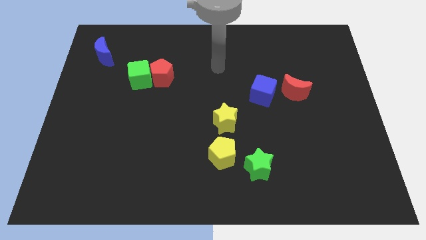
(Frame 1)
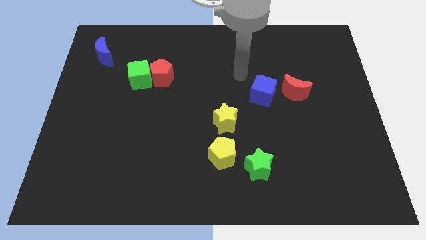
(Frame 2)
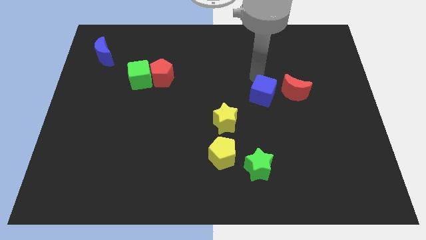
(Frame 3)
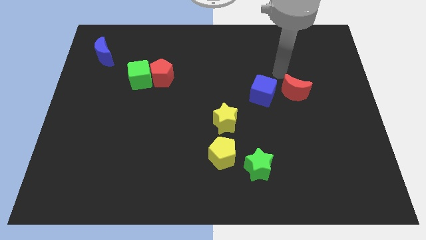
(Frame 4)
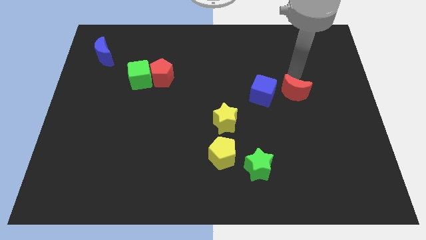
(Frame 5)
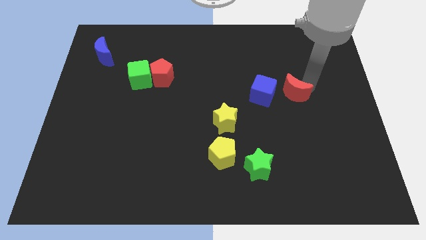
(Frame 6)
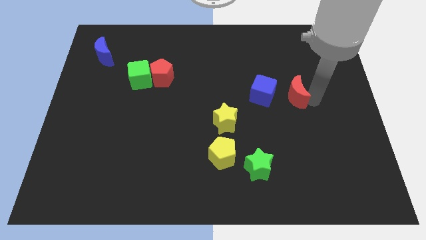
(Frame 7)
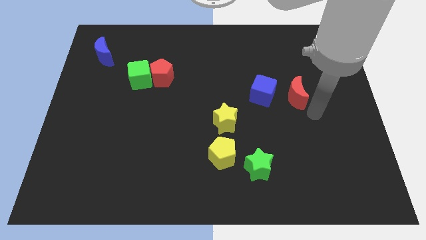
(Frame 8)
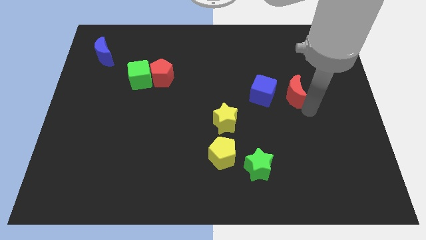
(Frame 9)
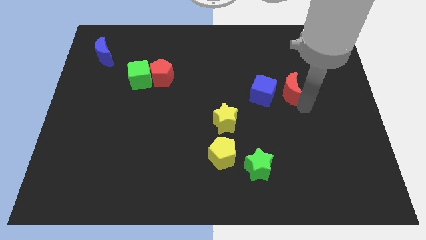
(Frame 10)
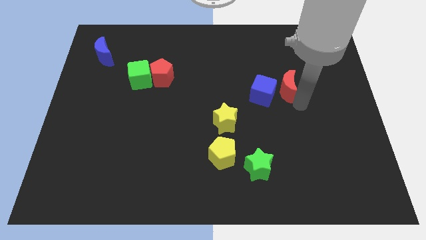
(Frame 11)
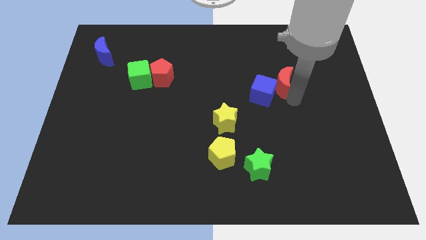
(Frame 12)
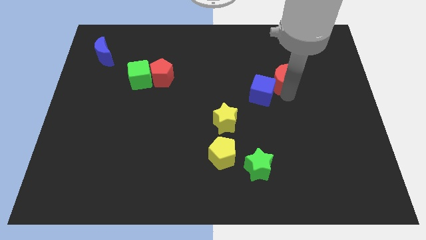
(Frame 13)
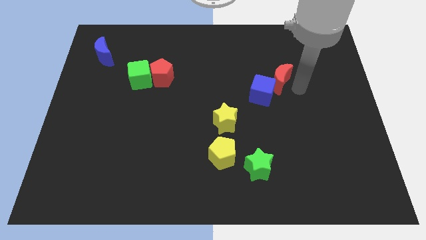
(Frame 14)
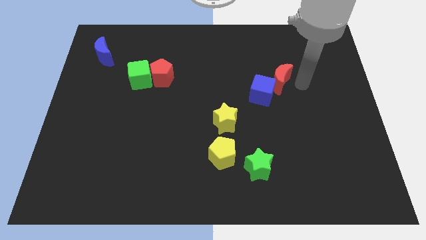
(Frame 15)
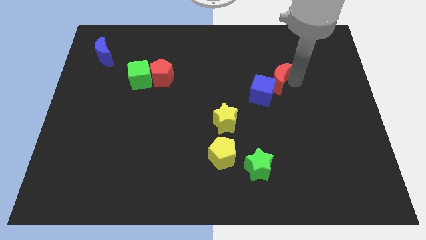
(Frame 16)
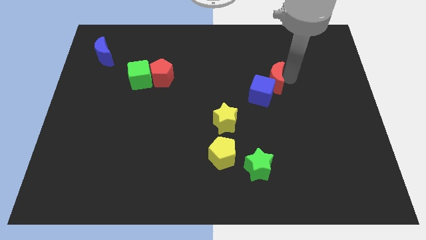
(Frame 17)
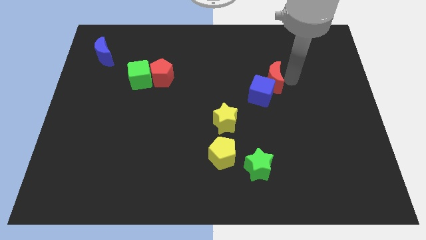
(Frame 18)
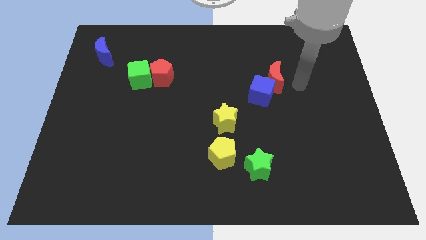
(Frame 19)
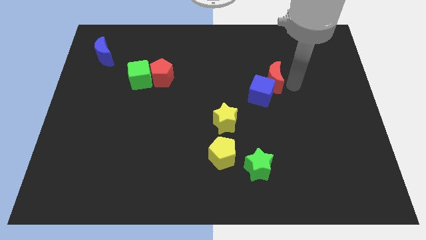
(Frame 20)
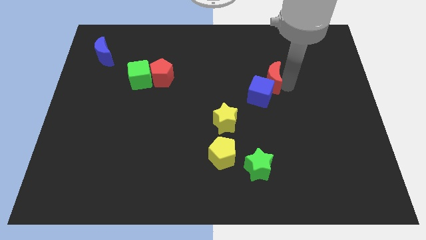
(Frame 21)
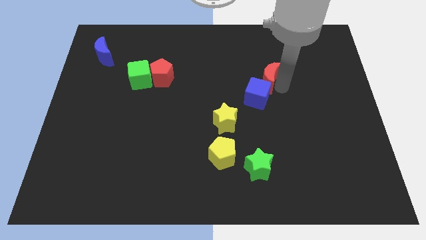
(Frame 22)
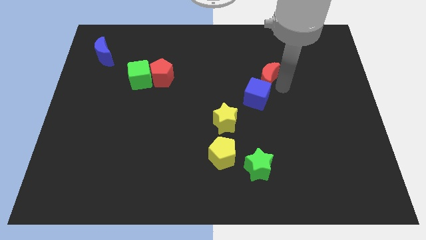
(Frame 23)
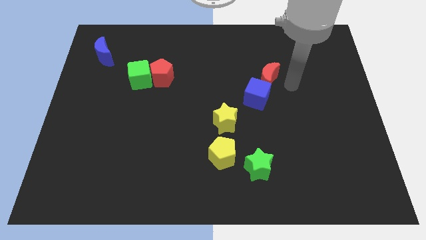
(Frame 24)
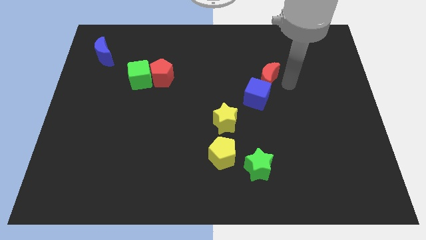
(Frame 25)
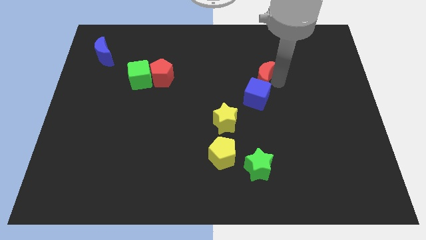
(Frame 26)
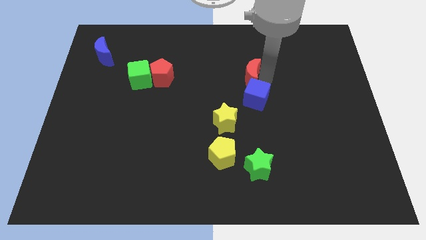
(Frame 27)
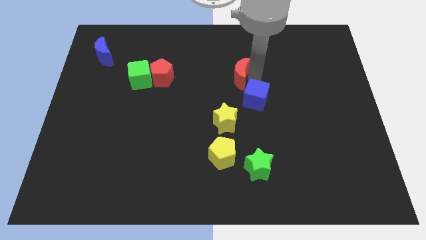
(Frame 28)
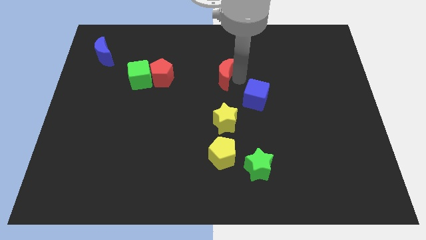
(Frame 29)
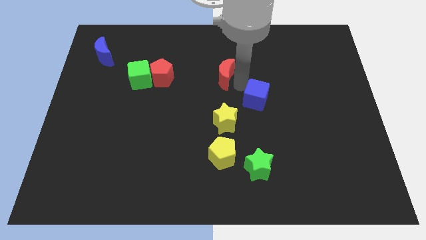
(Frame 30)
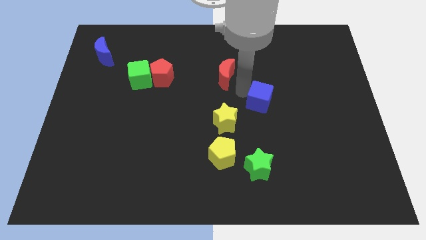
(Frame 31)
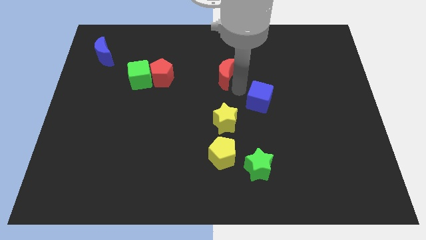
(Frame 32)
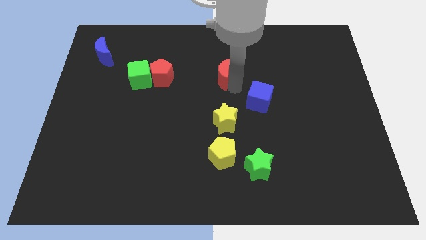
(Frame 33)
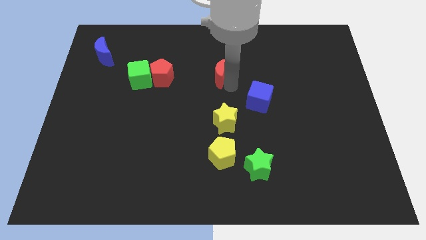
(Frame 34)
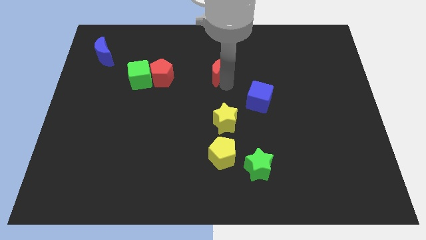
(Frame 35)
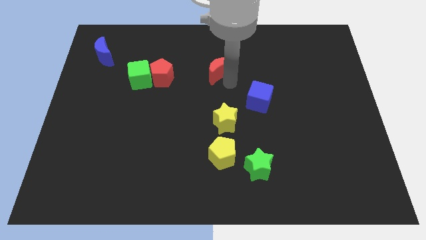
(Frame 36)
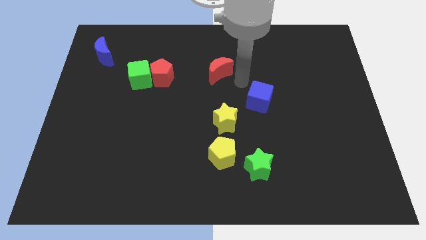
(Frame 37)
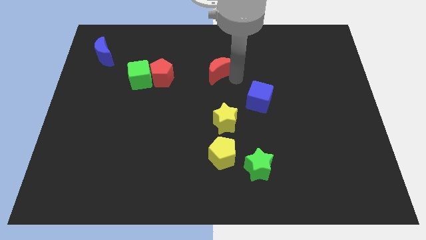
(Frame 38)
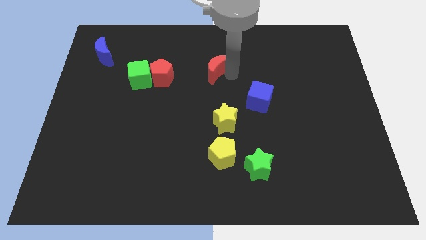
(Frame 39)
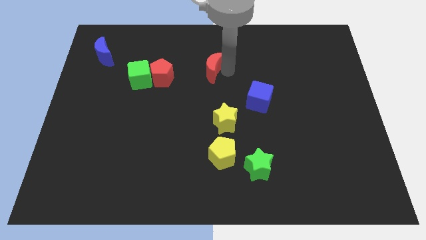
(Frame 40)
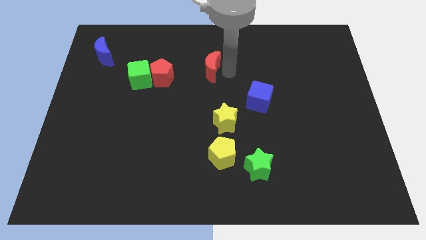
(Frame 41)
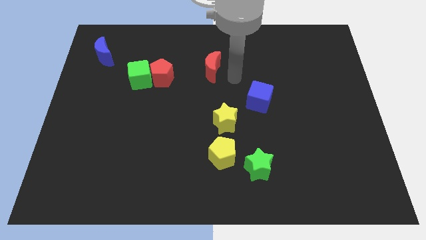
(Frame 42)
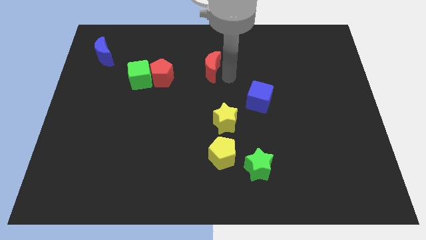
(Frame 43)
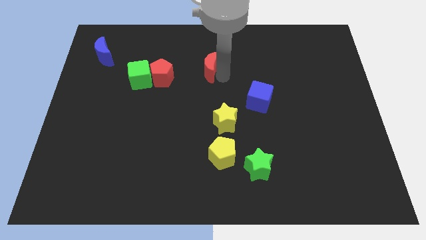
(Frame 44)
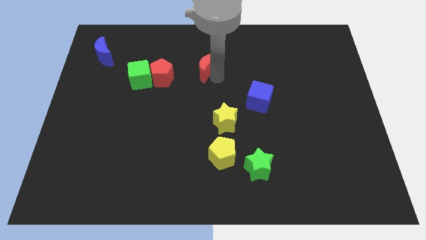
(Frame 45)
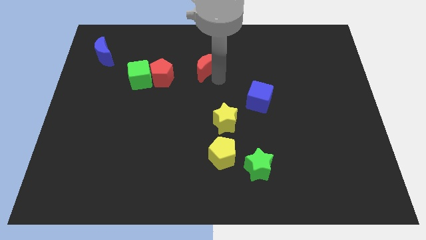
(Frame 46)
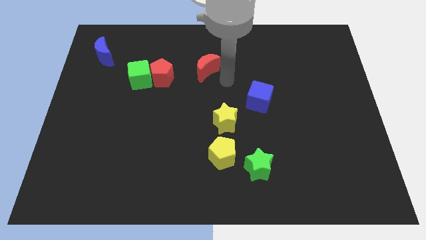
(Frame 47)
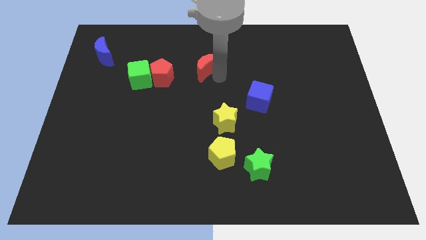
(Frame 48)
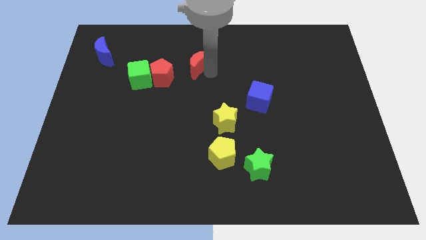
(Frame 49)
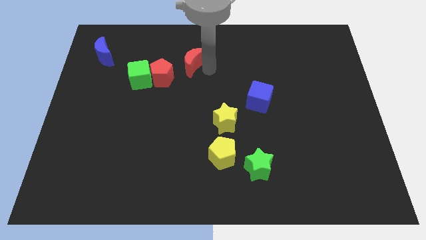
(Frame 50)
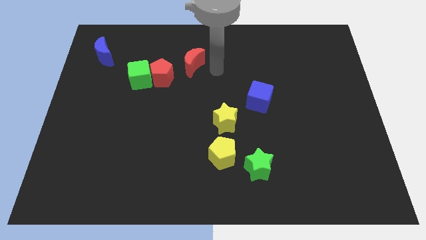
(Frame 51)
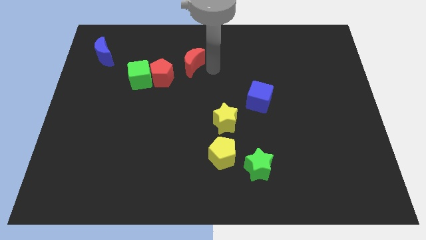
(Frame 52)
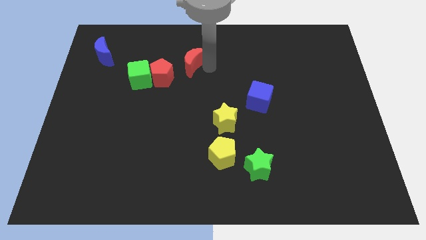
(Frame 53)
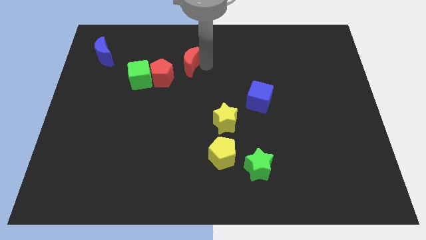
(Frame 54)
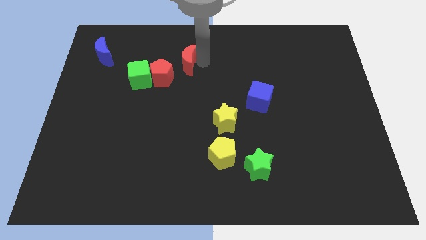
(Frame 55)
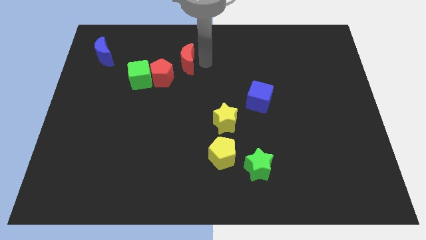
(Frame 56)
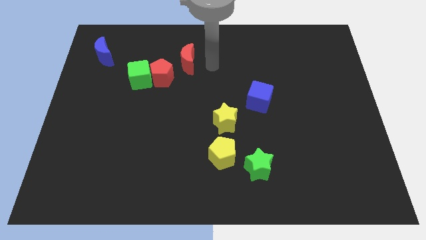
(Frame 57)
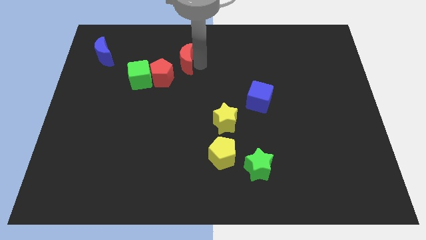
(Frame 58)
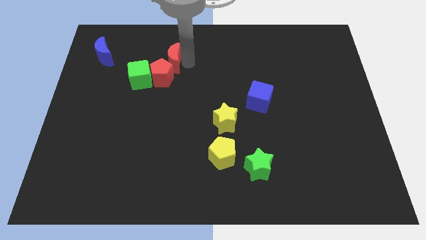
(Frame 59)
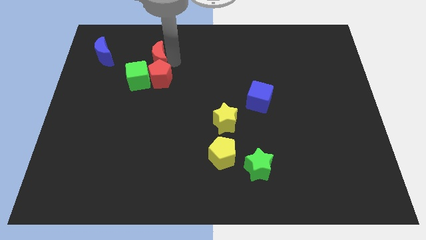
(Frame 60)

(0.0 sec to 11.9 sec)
slide the red moon right of the blue moon
